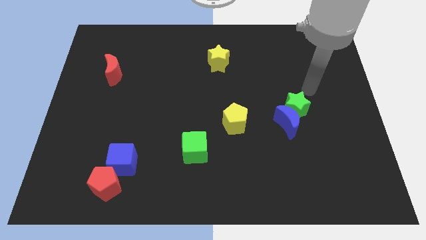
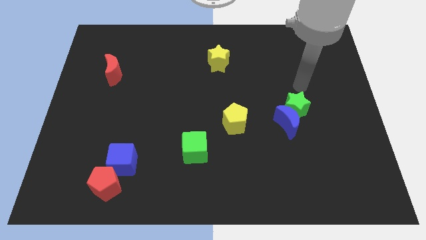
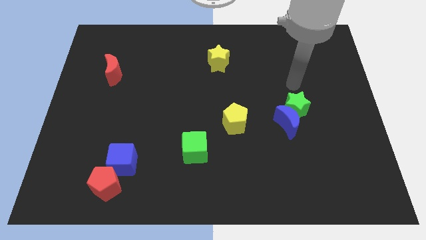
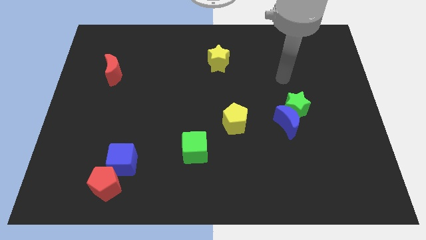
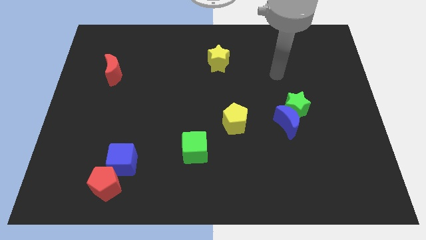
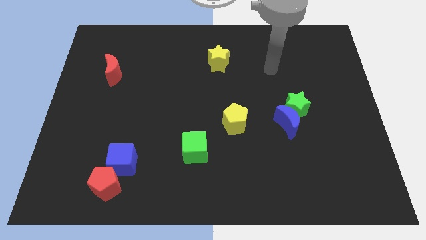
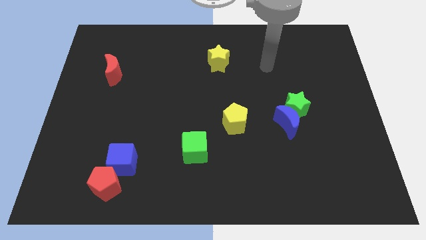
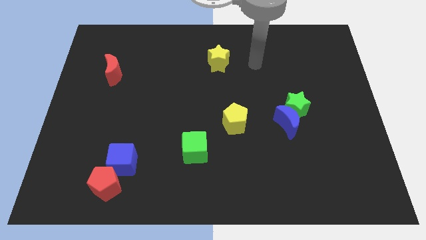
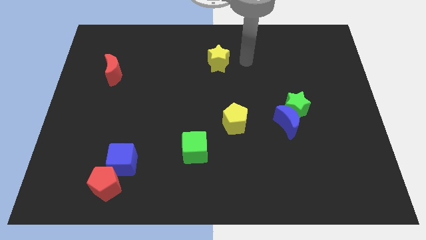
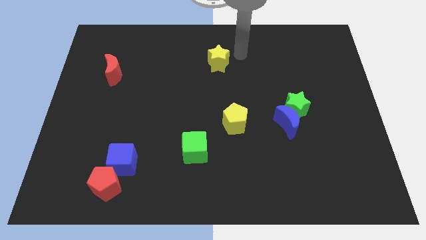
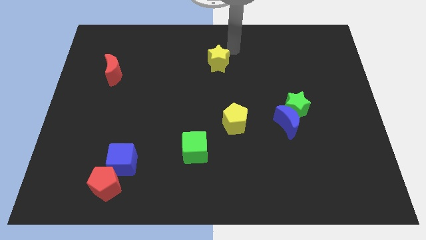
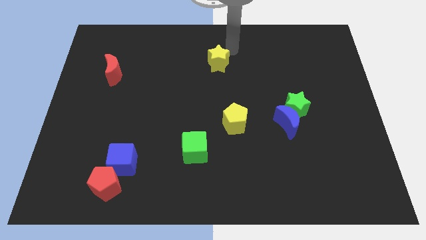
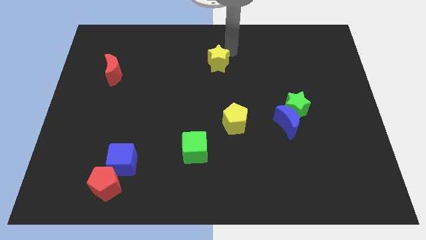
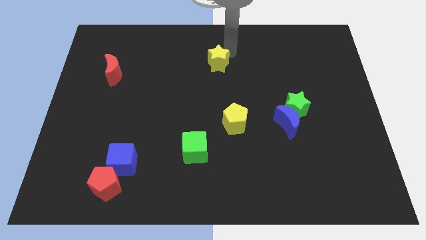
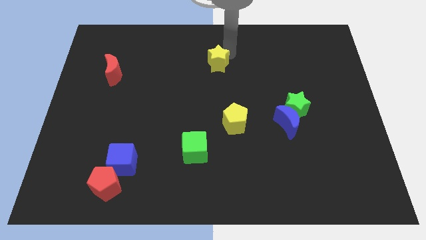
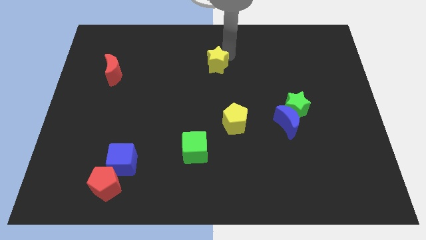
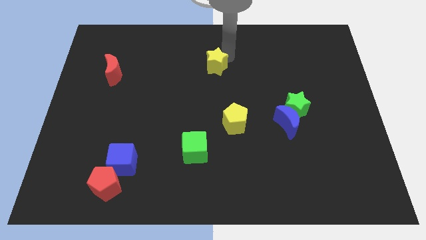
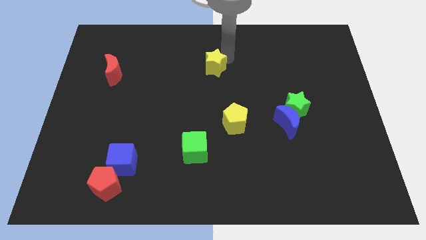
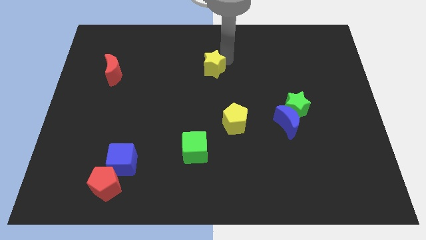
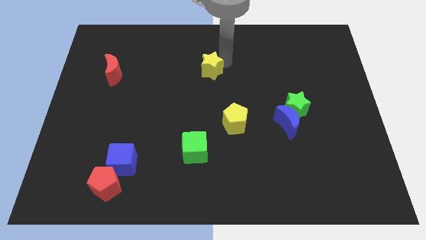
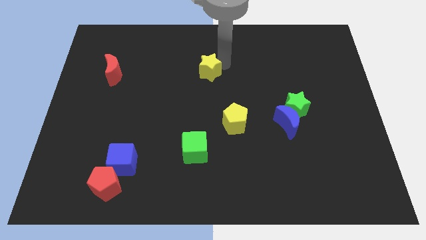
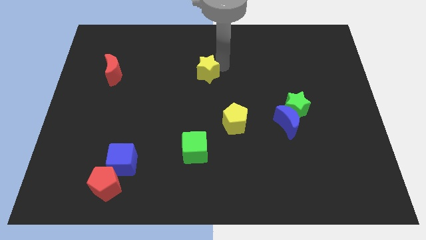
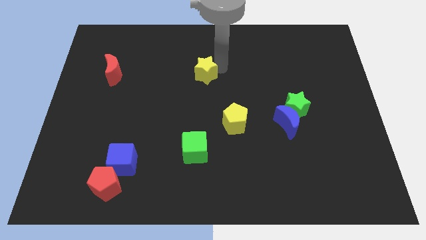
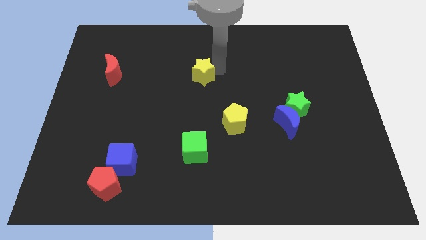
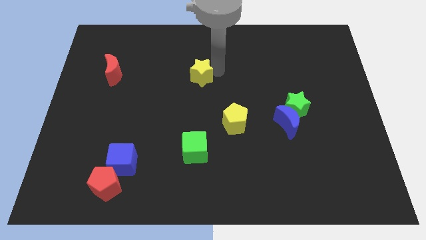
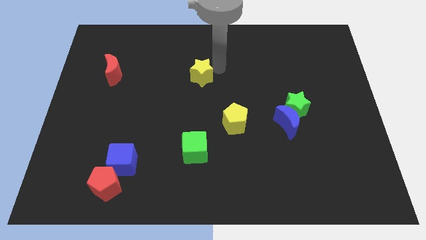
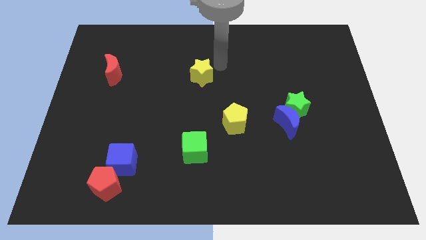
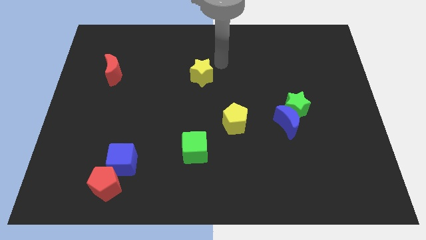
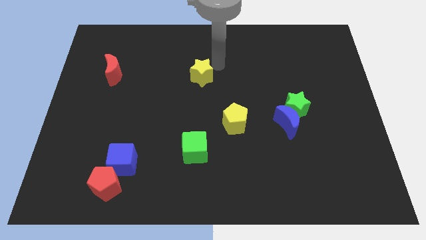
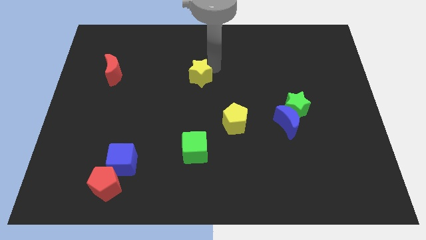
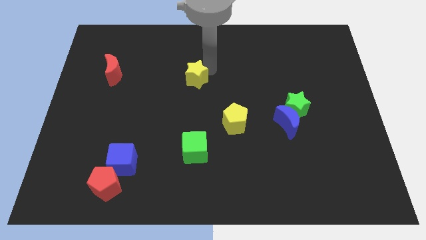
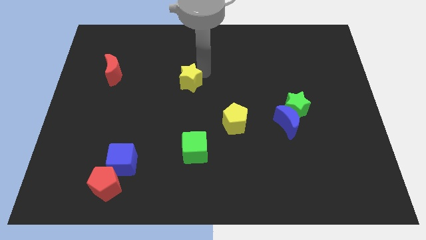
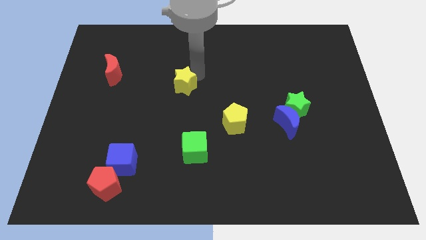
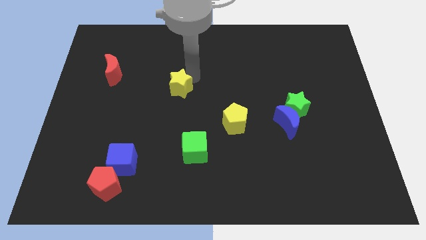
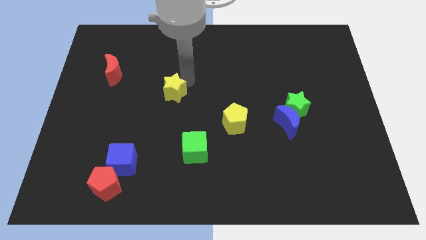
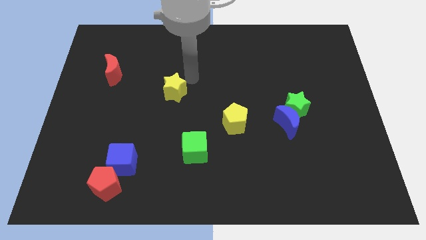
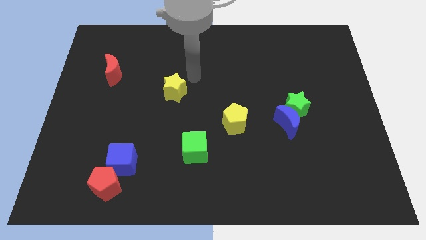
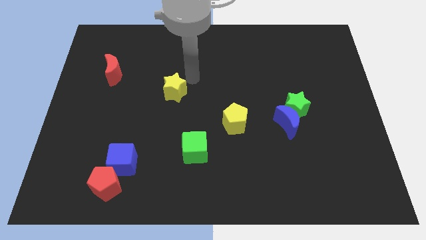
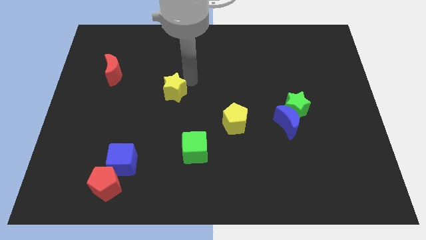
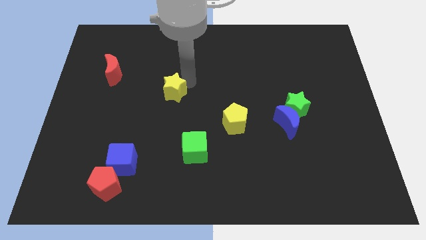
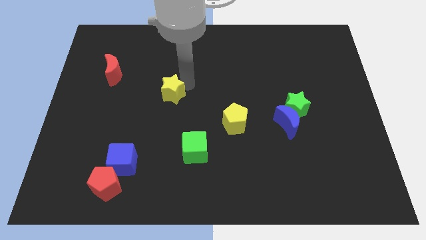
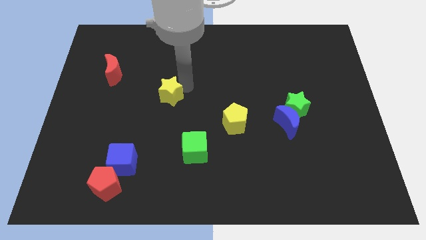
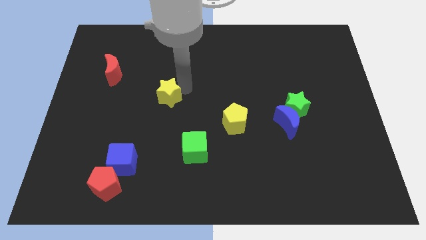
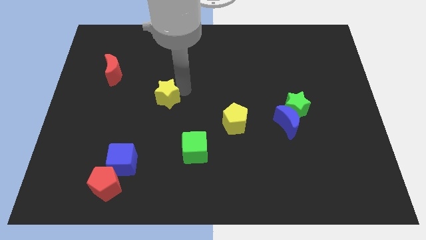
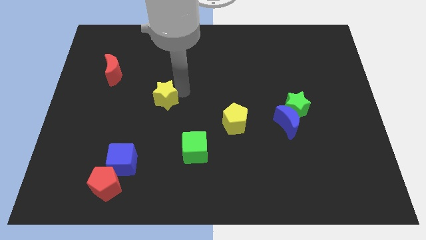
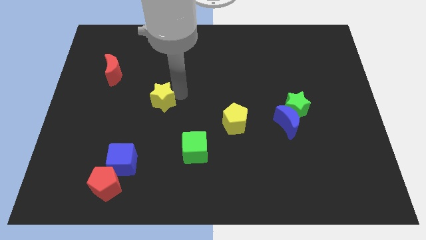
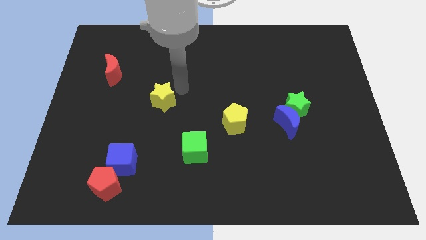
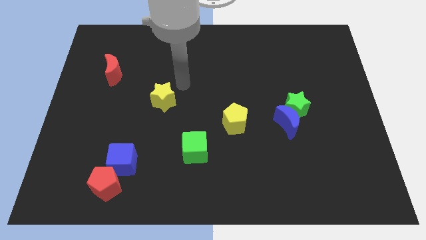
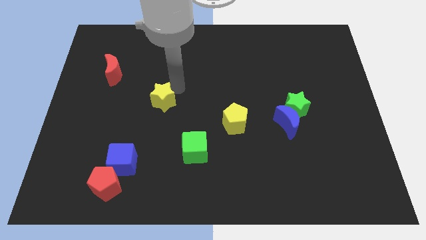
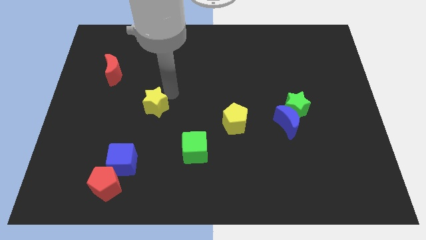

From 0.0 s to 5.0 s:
slide the yellow star diagonally down and to the left

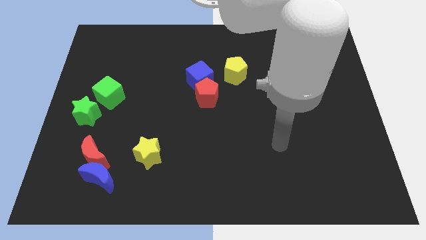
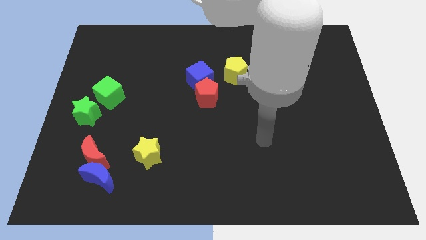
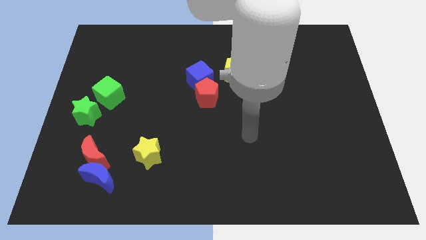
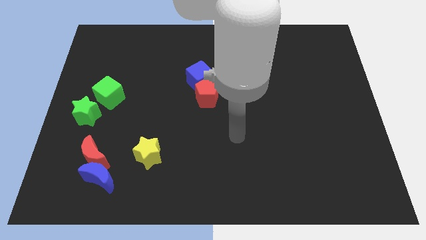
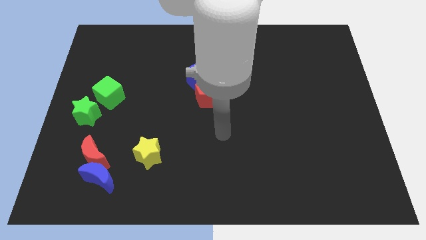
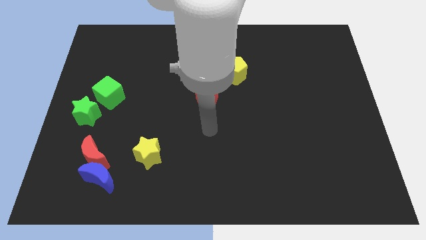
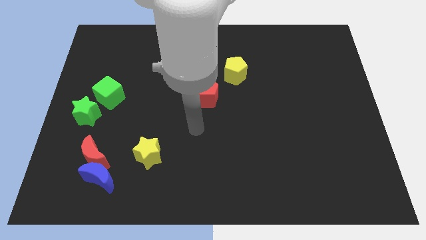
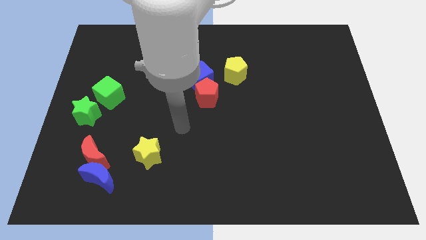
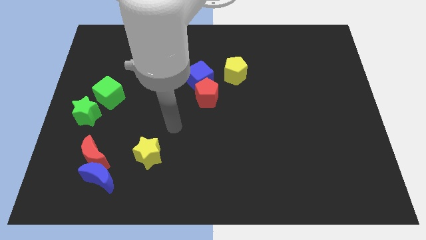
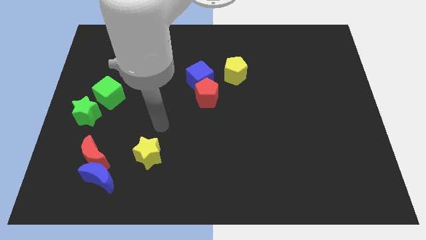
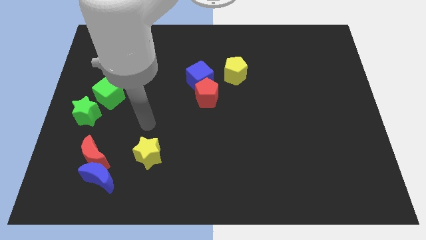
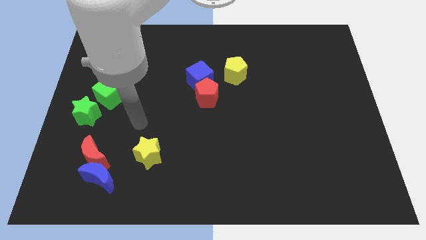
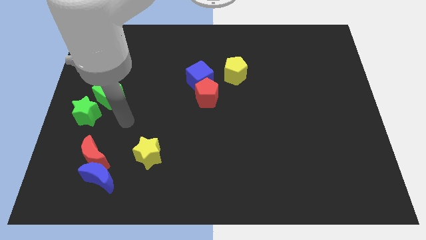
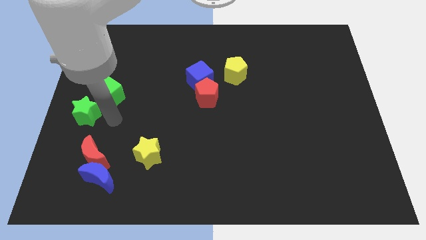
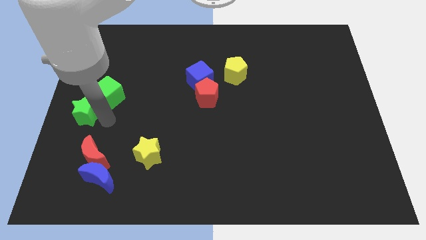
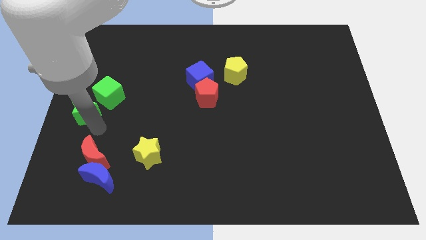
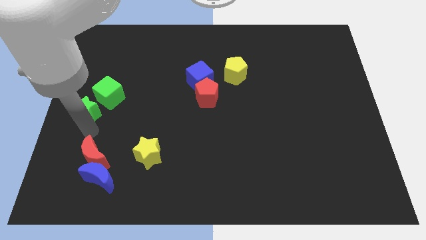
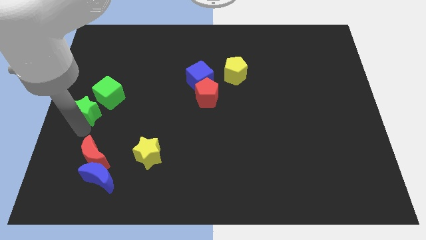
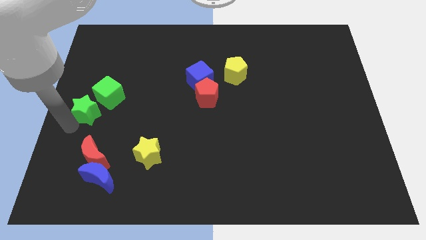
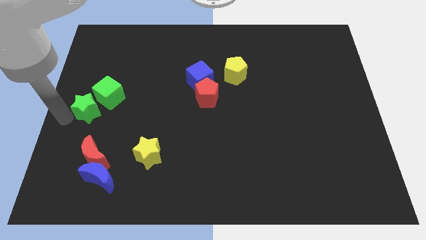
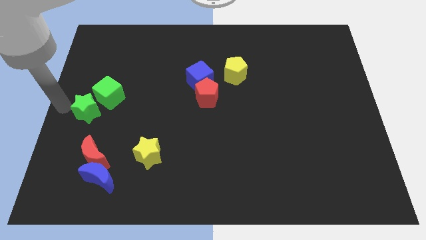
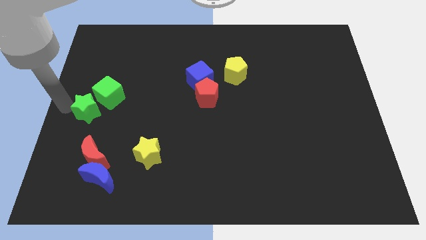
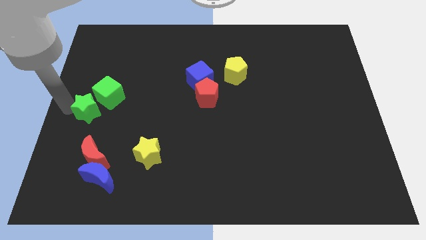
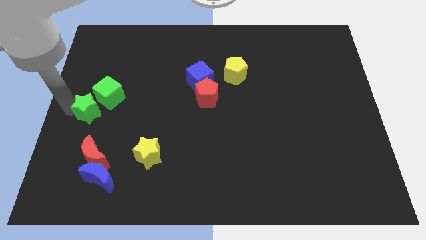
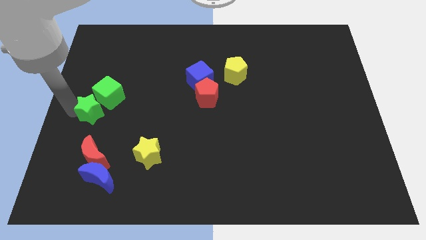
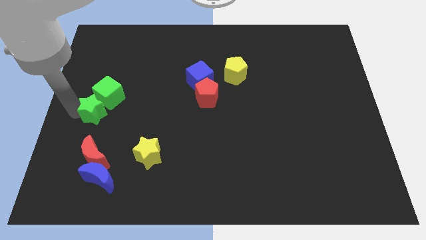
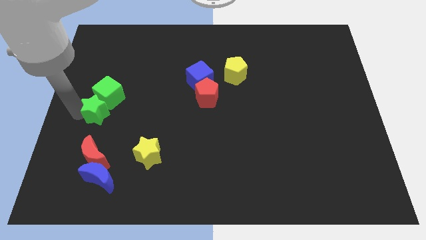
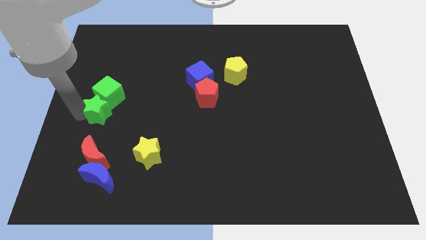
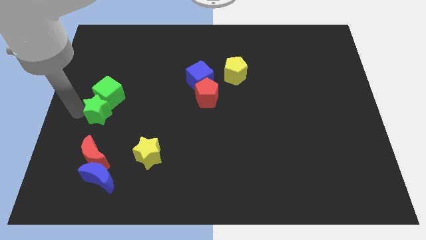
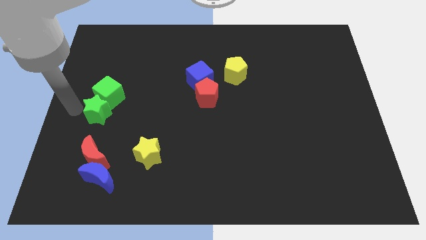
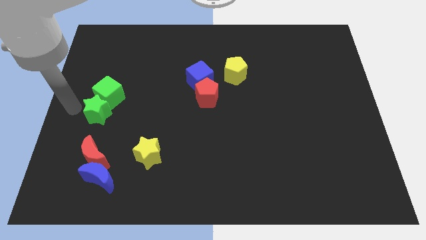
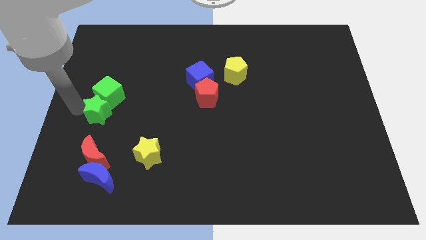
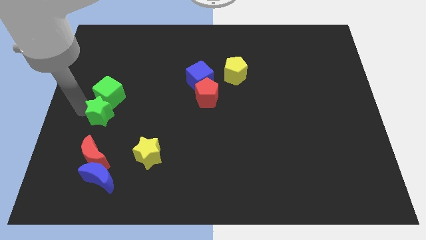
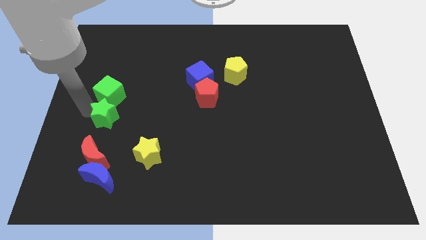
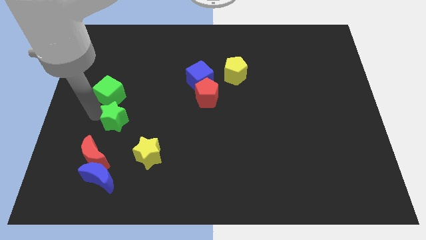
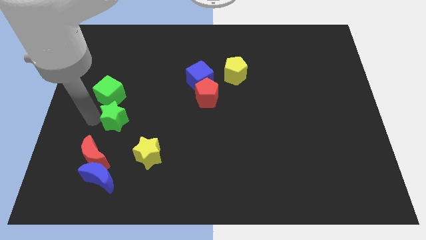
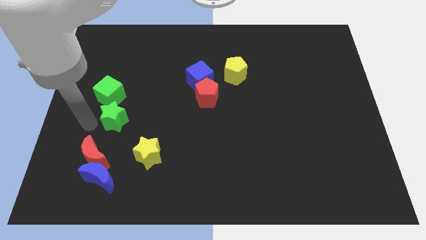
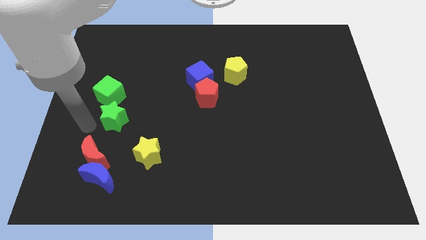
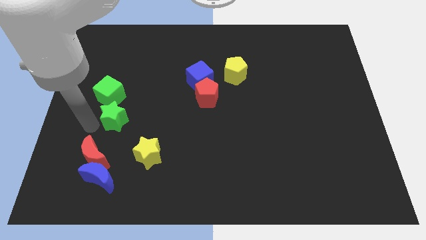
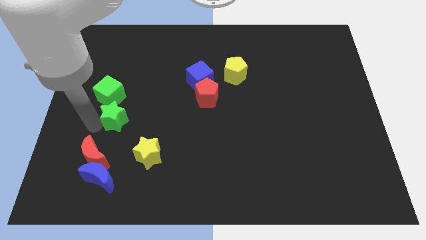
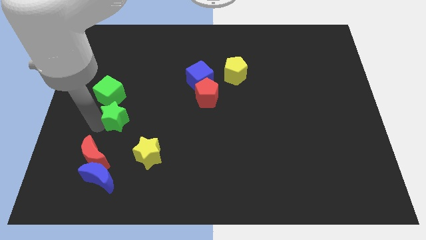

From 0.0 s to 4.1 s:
slightly slide the green star to the right
